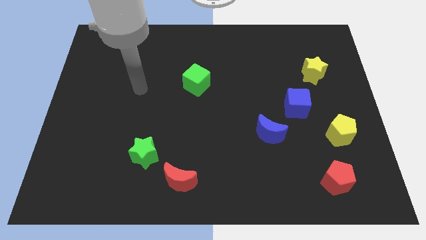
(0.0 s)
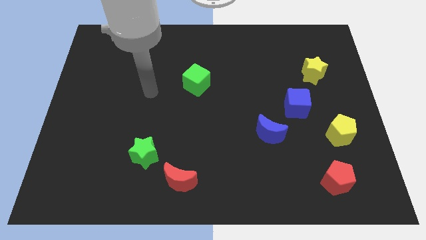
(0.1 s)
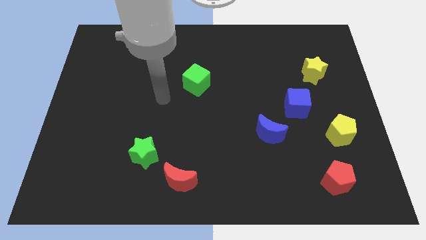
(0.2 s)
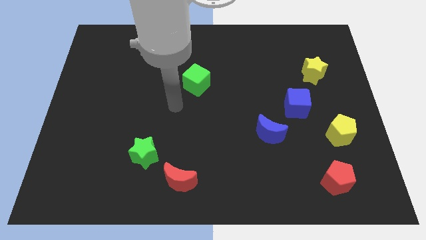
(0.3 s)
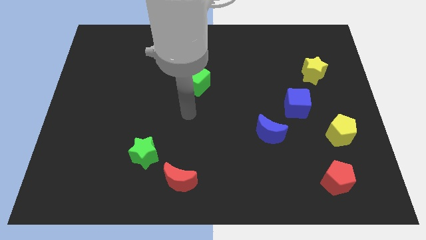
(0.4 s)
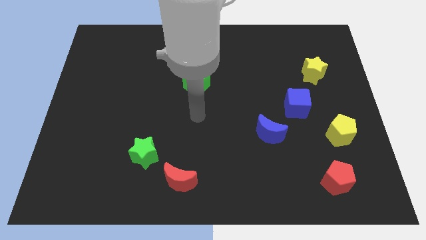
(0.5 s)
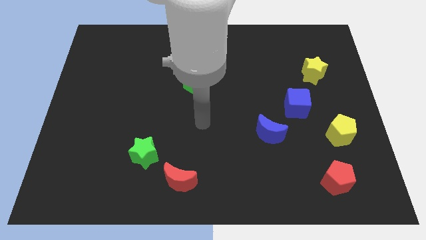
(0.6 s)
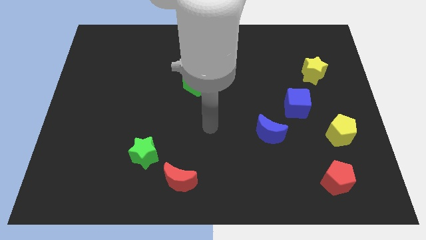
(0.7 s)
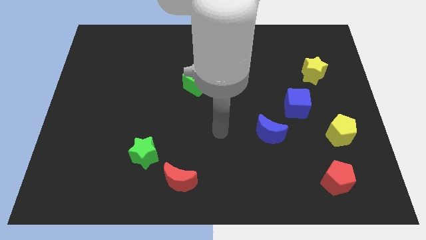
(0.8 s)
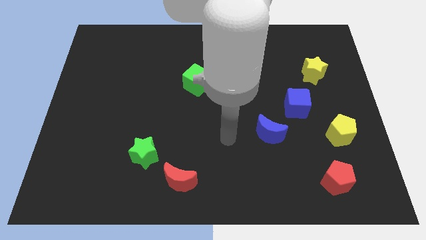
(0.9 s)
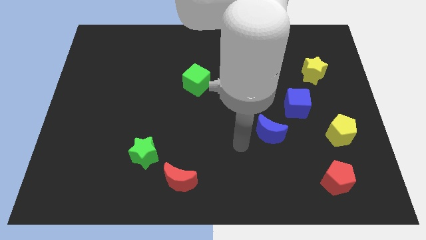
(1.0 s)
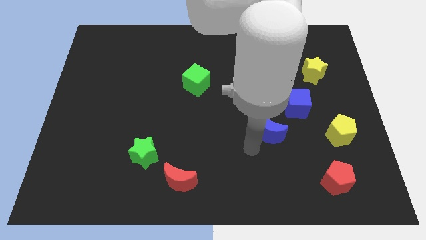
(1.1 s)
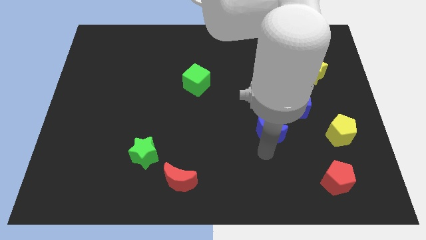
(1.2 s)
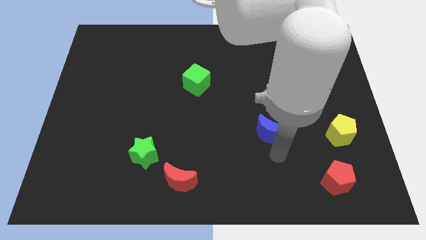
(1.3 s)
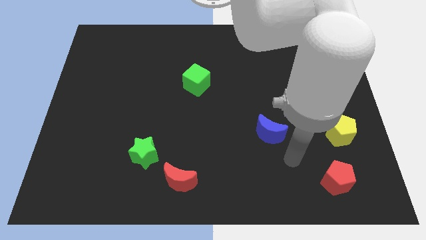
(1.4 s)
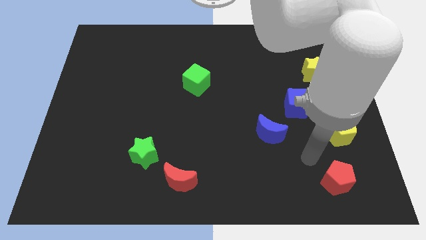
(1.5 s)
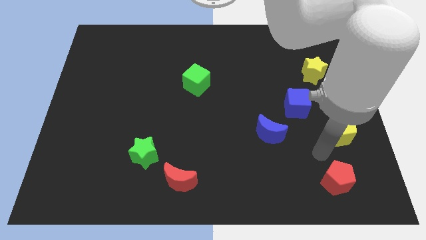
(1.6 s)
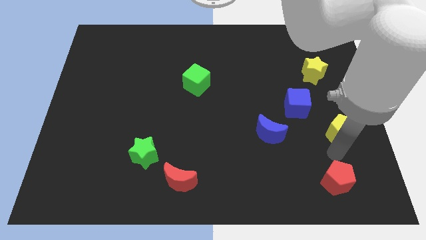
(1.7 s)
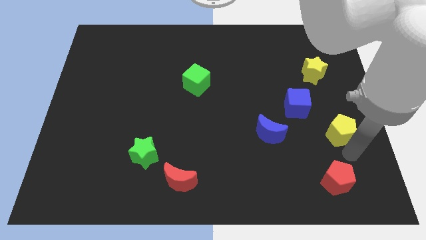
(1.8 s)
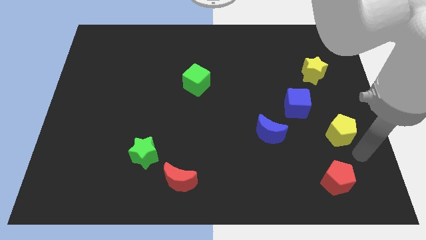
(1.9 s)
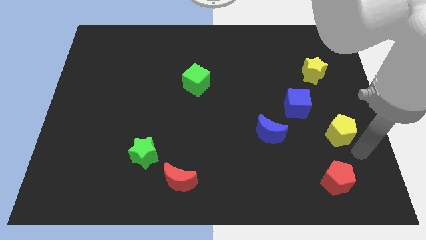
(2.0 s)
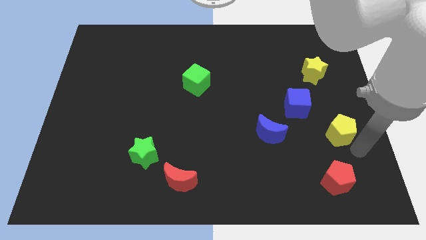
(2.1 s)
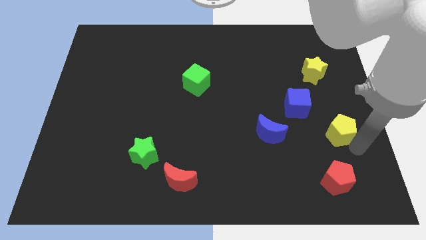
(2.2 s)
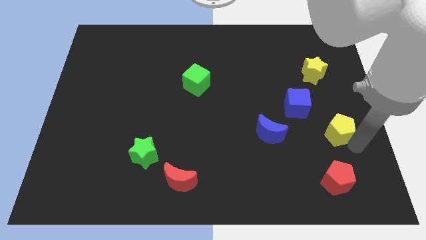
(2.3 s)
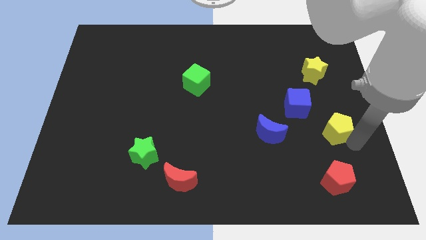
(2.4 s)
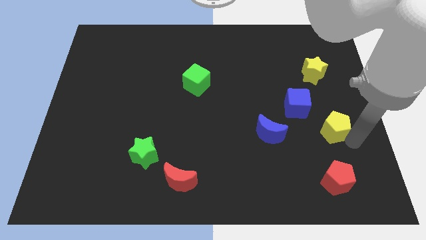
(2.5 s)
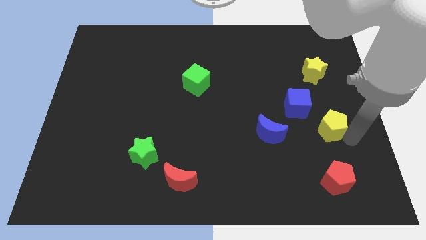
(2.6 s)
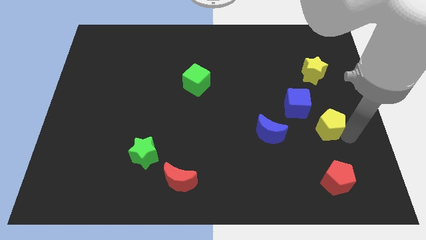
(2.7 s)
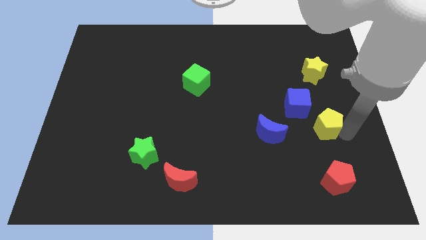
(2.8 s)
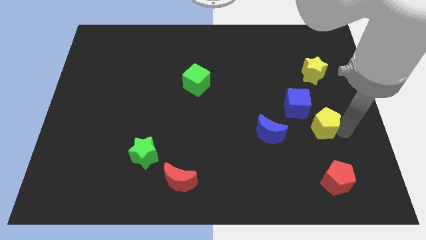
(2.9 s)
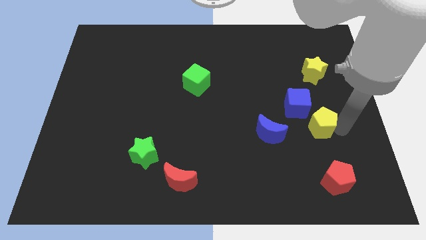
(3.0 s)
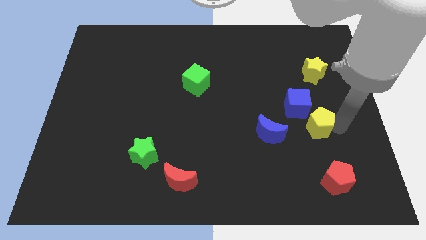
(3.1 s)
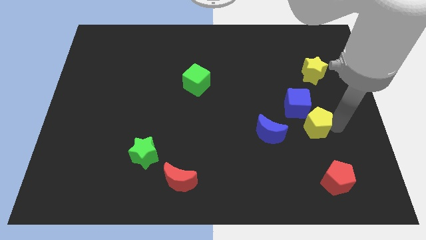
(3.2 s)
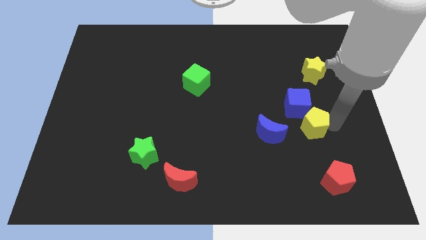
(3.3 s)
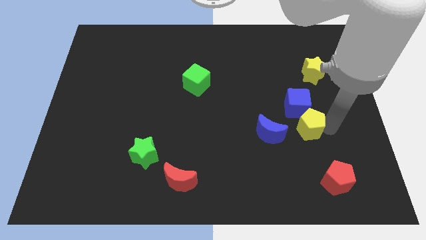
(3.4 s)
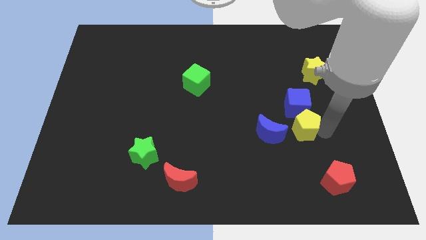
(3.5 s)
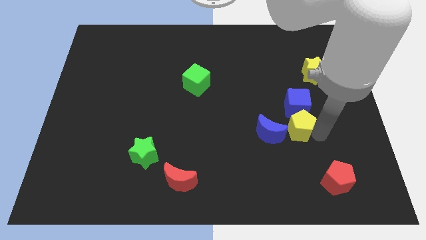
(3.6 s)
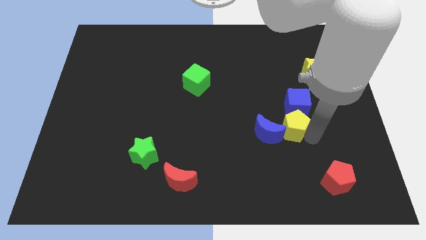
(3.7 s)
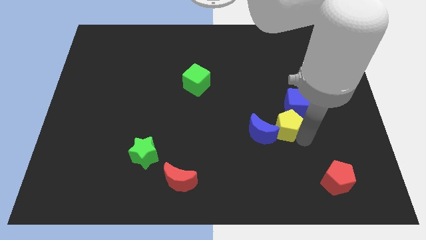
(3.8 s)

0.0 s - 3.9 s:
slide the yellow pentagon diagonally up and left a little

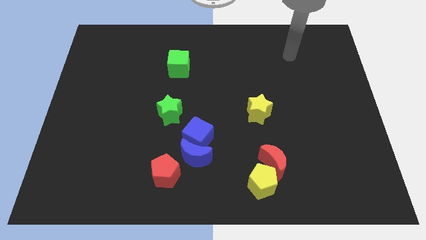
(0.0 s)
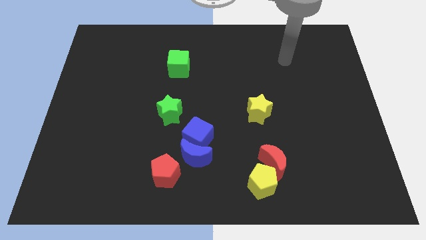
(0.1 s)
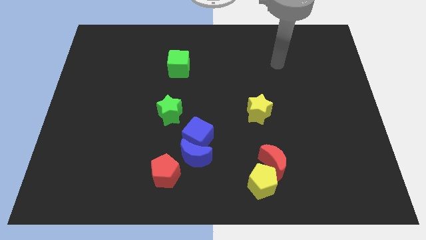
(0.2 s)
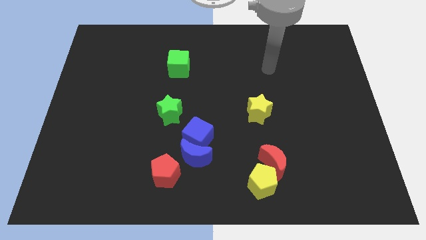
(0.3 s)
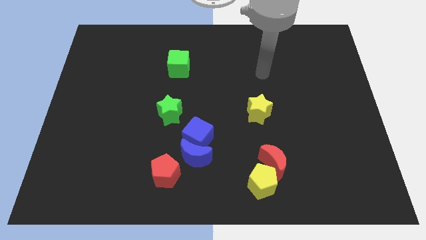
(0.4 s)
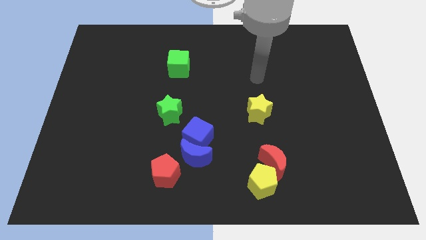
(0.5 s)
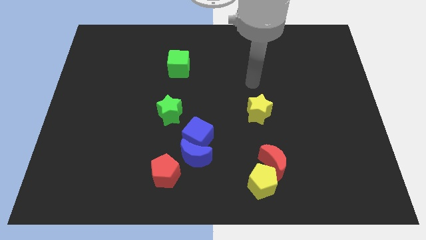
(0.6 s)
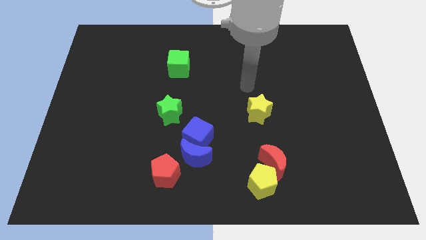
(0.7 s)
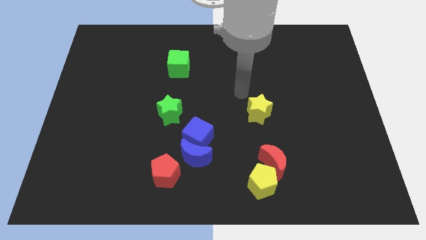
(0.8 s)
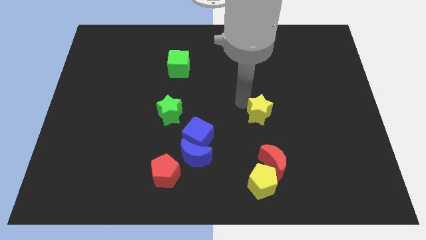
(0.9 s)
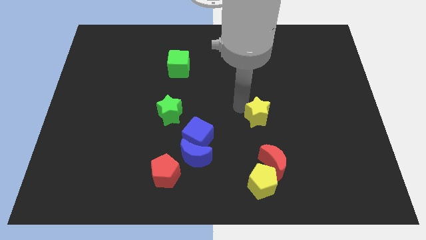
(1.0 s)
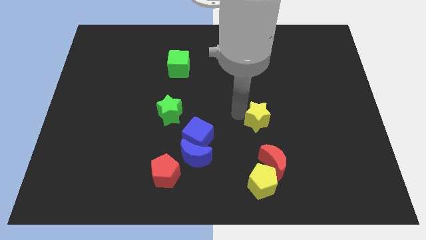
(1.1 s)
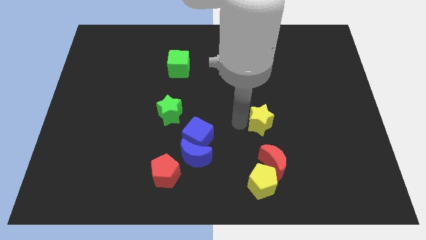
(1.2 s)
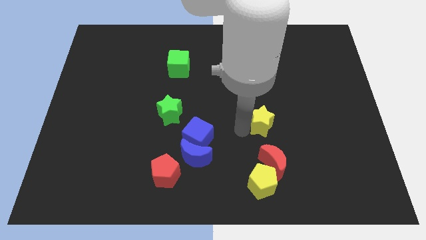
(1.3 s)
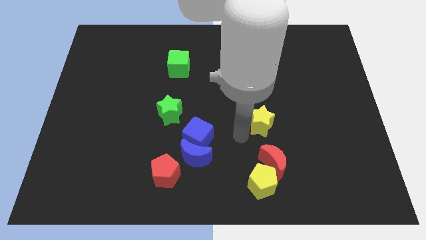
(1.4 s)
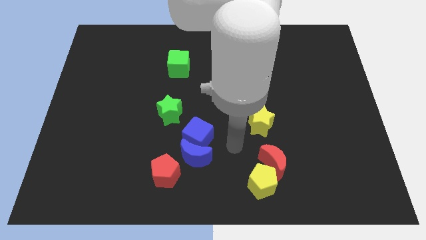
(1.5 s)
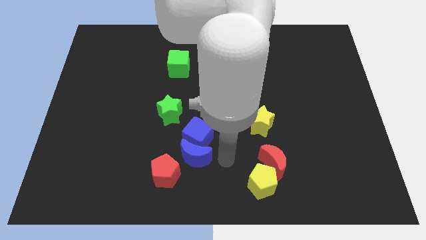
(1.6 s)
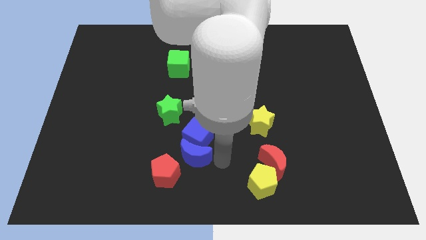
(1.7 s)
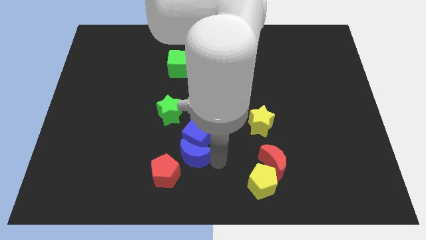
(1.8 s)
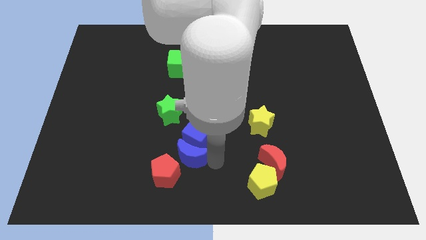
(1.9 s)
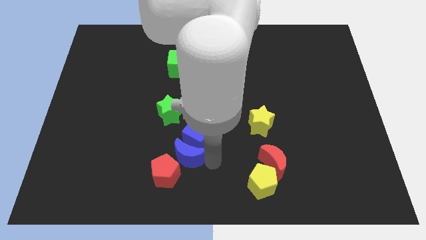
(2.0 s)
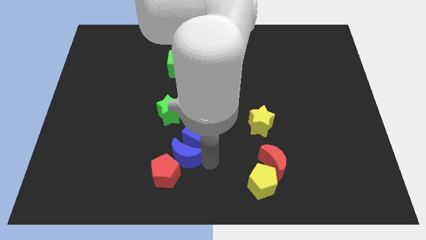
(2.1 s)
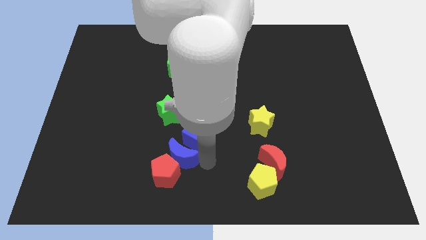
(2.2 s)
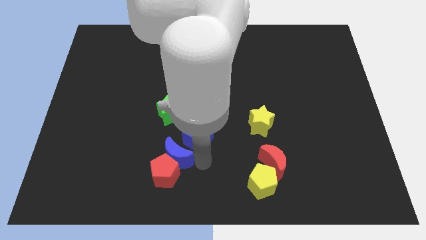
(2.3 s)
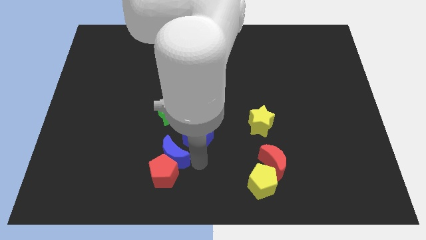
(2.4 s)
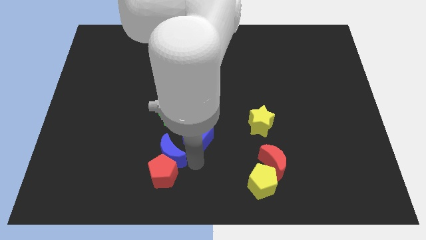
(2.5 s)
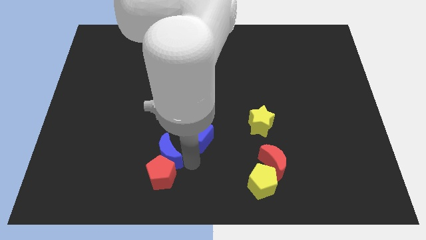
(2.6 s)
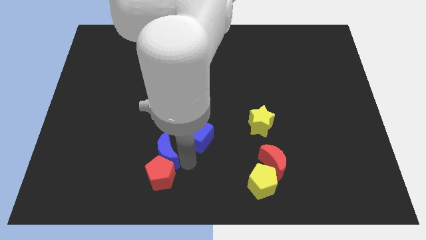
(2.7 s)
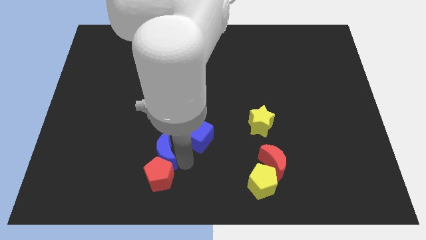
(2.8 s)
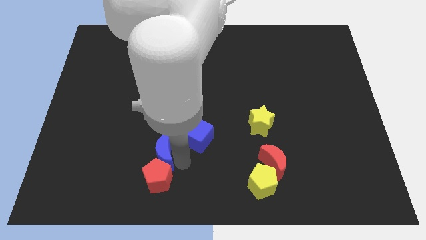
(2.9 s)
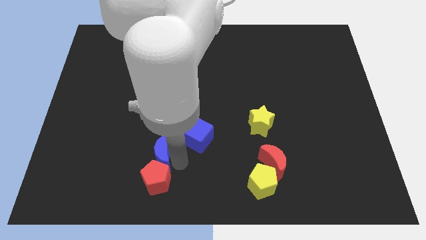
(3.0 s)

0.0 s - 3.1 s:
slide the blue moon a bit to the left

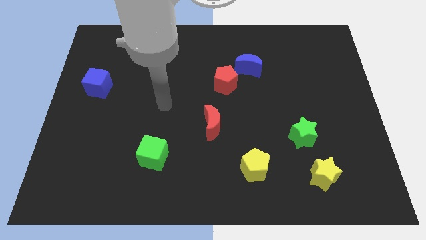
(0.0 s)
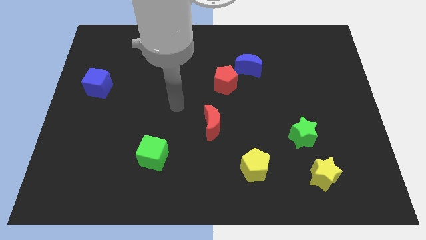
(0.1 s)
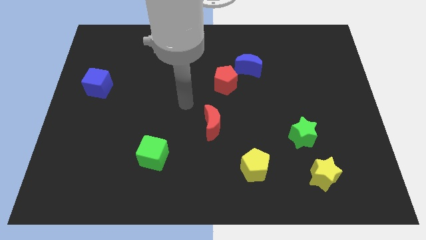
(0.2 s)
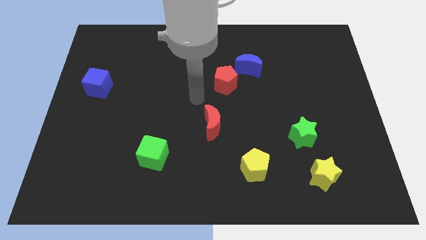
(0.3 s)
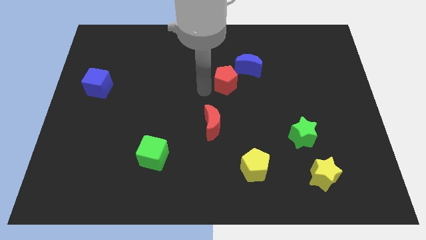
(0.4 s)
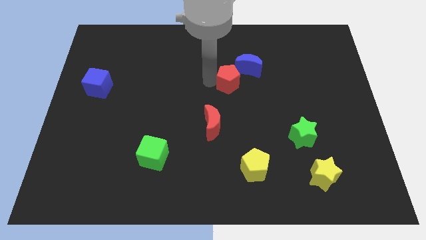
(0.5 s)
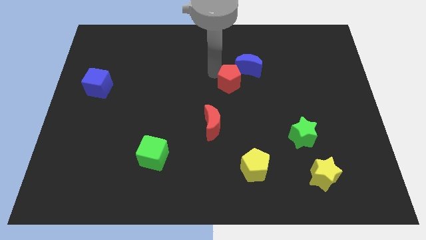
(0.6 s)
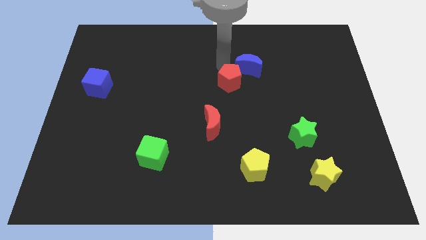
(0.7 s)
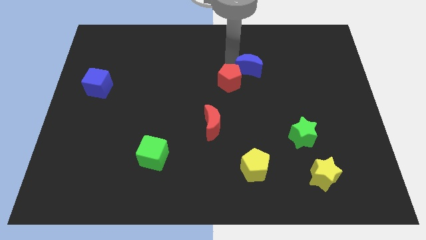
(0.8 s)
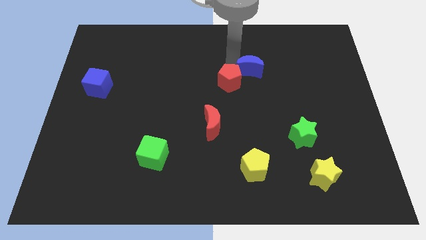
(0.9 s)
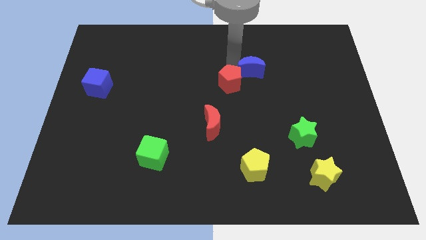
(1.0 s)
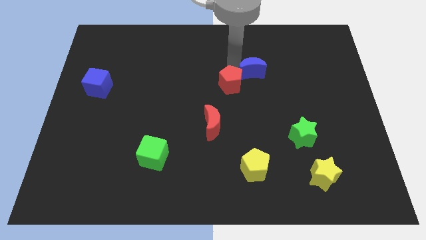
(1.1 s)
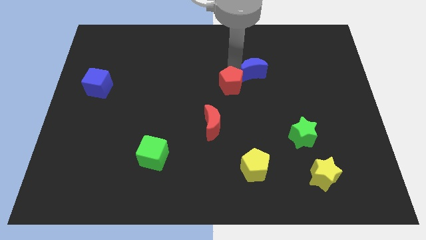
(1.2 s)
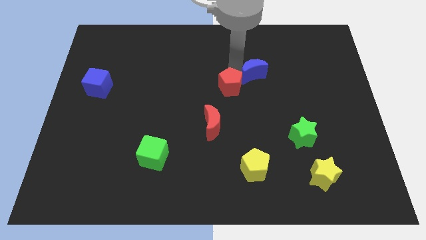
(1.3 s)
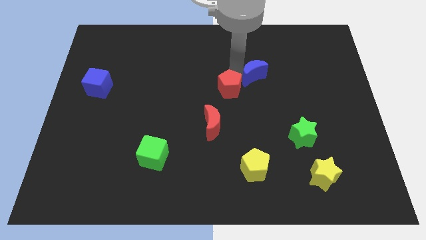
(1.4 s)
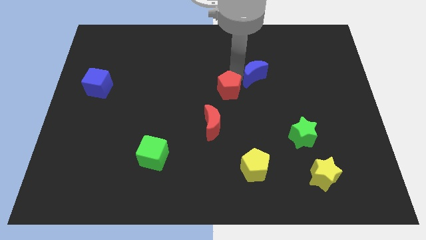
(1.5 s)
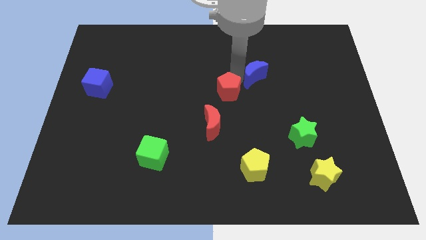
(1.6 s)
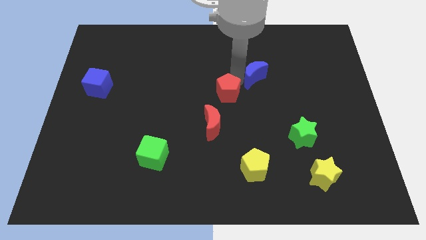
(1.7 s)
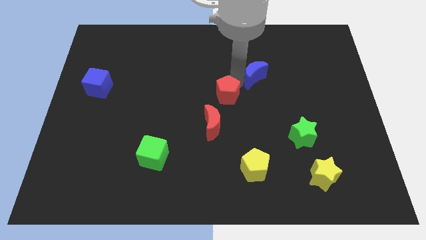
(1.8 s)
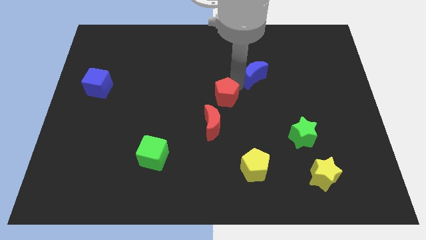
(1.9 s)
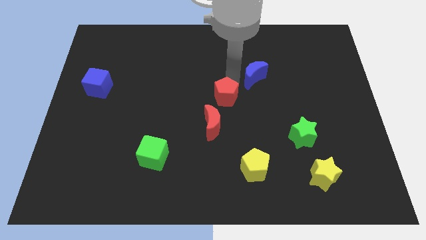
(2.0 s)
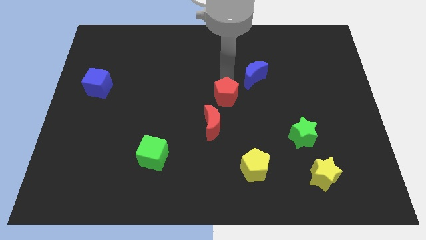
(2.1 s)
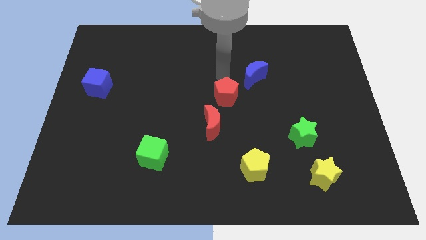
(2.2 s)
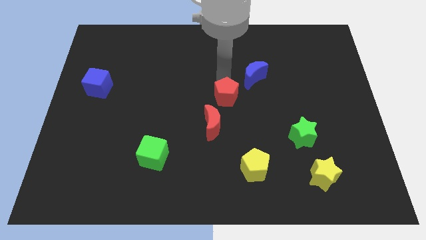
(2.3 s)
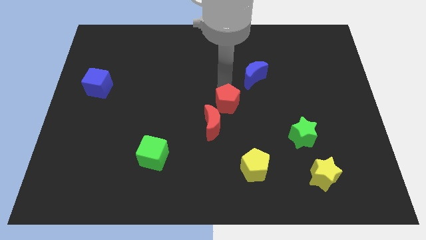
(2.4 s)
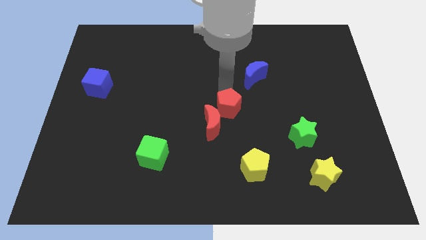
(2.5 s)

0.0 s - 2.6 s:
push the red pentagon downwards a bit
